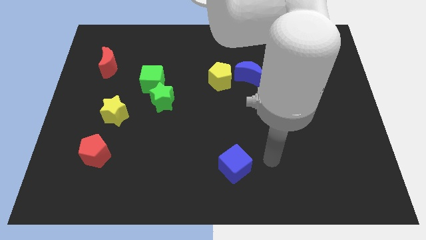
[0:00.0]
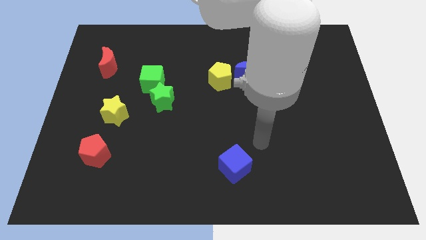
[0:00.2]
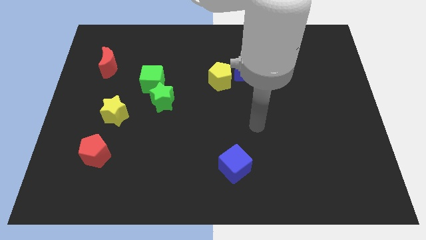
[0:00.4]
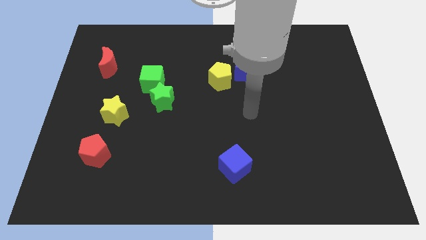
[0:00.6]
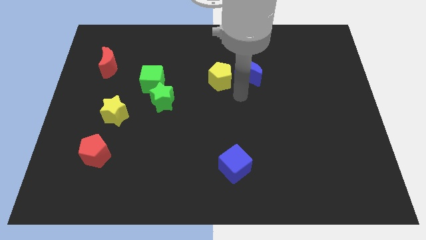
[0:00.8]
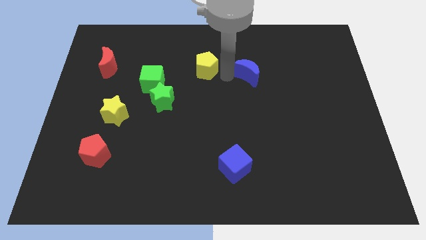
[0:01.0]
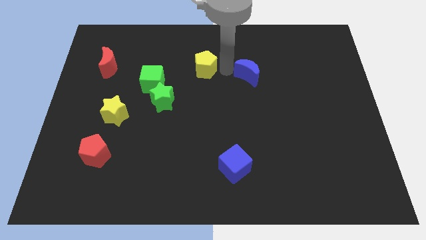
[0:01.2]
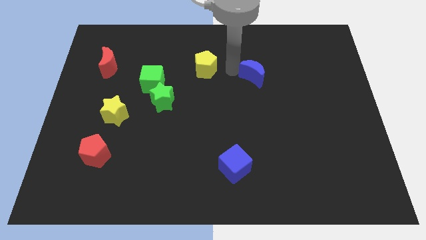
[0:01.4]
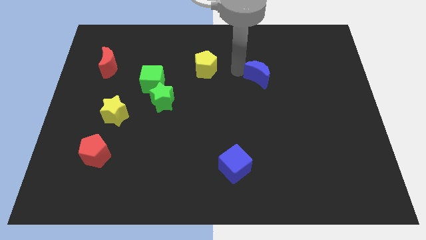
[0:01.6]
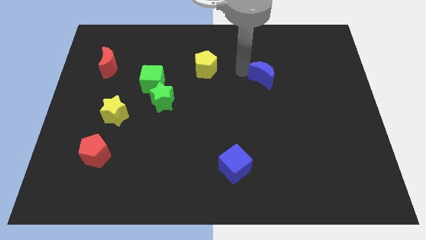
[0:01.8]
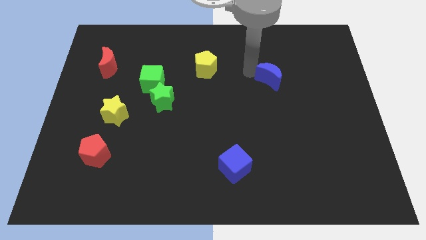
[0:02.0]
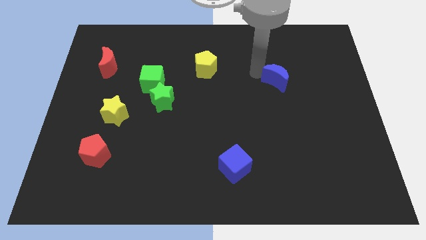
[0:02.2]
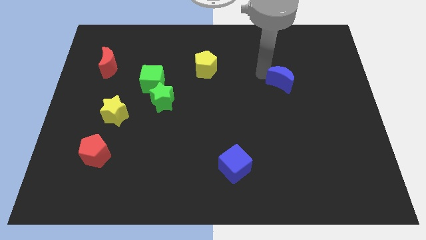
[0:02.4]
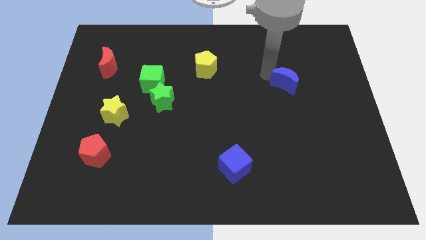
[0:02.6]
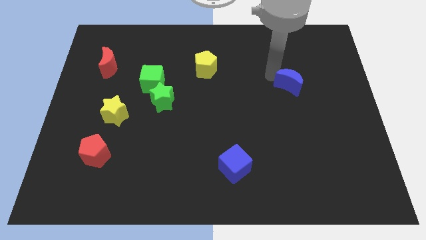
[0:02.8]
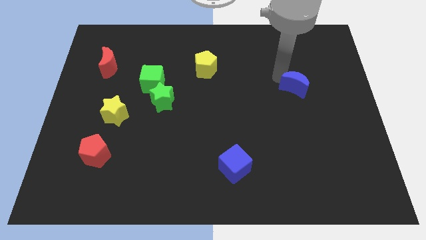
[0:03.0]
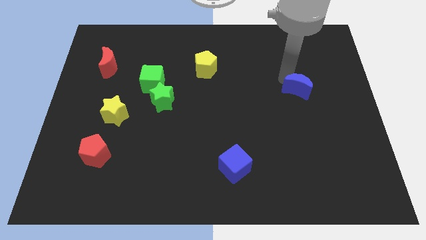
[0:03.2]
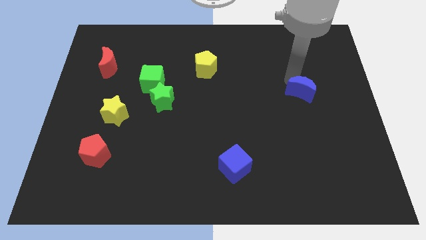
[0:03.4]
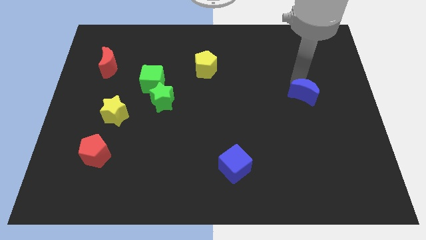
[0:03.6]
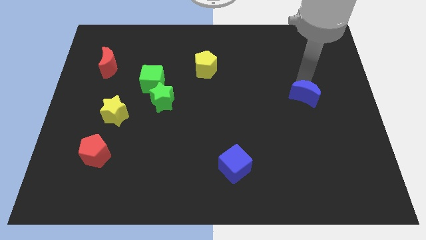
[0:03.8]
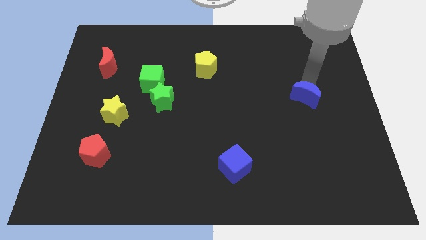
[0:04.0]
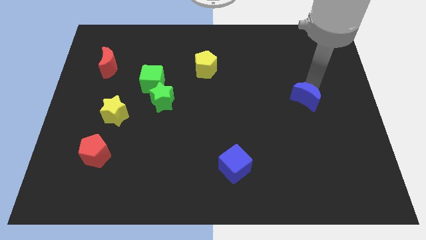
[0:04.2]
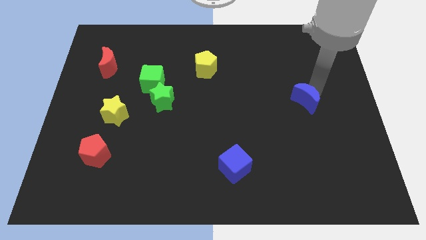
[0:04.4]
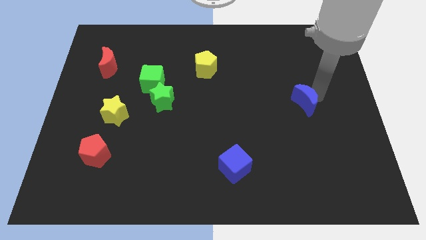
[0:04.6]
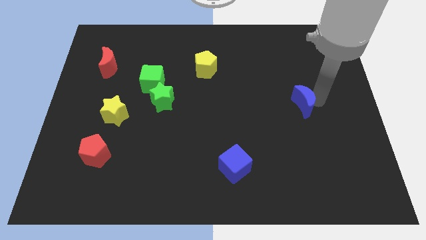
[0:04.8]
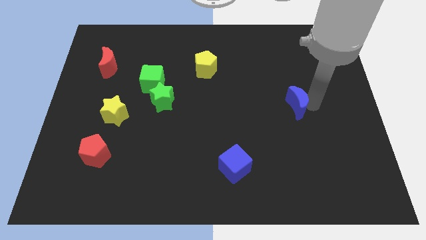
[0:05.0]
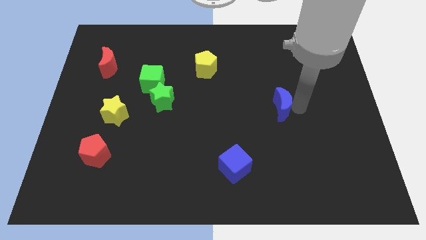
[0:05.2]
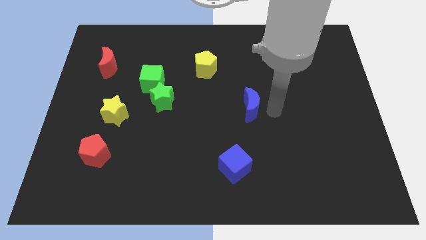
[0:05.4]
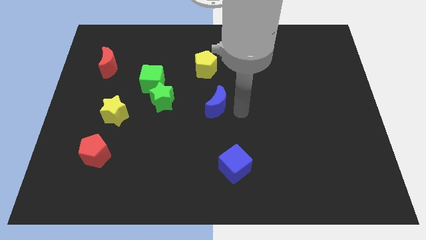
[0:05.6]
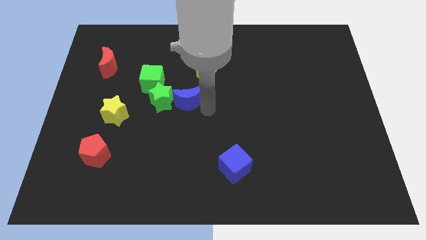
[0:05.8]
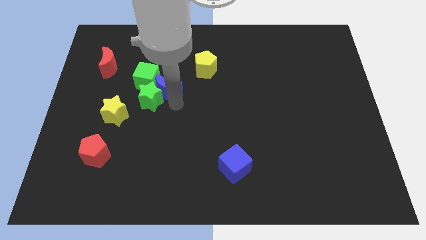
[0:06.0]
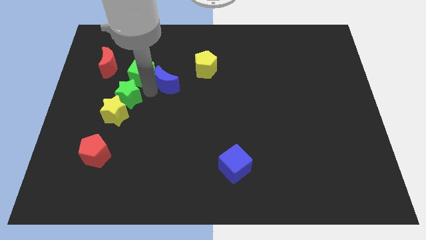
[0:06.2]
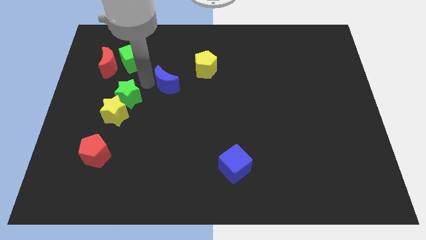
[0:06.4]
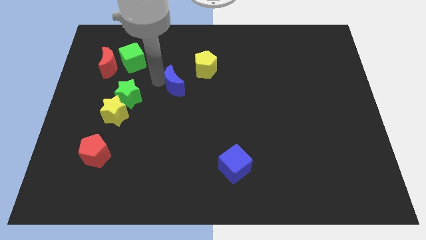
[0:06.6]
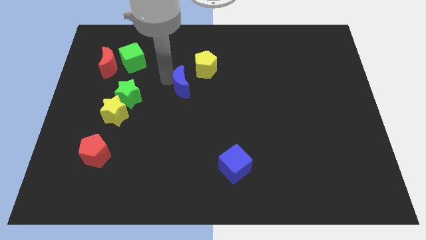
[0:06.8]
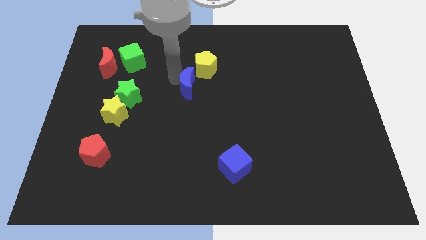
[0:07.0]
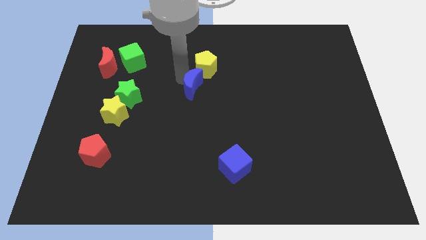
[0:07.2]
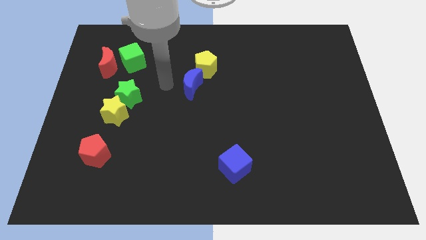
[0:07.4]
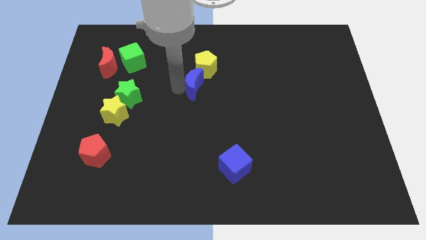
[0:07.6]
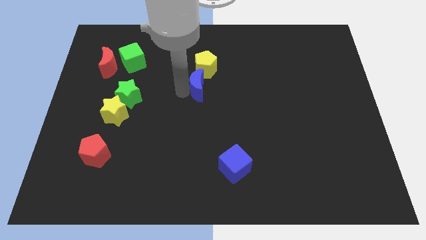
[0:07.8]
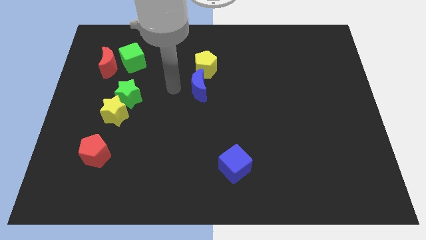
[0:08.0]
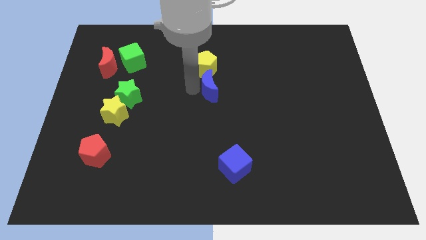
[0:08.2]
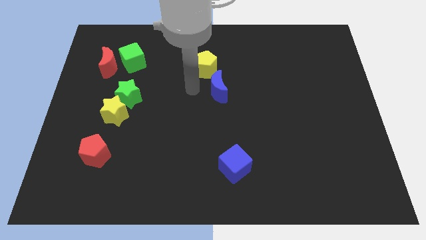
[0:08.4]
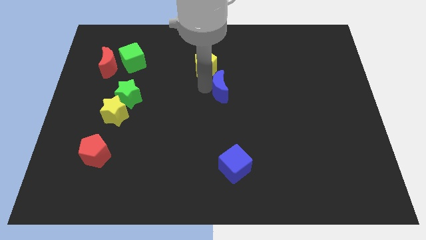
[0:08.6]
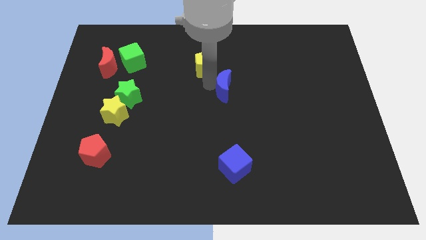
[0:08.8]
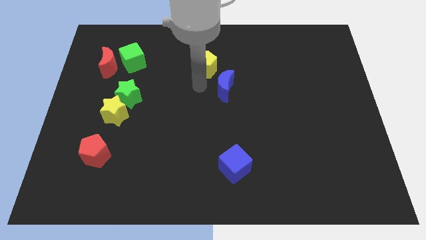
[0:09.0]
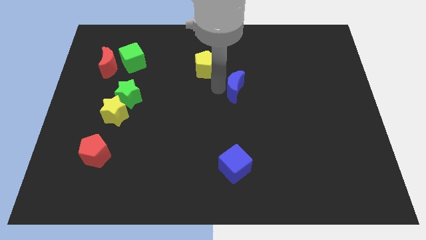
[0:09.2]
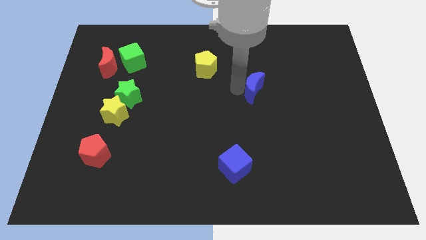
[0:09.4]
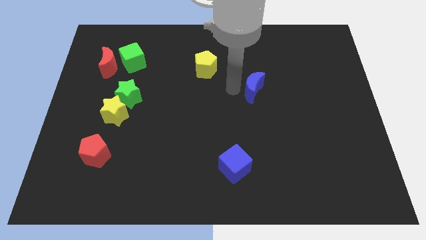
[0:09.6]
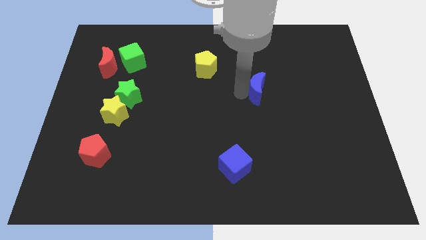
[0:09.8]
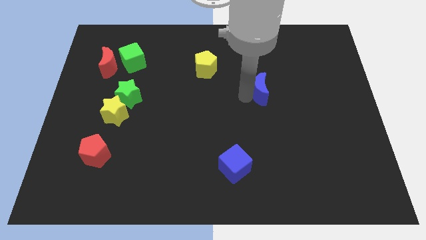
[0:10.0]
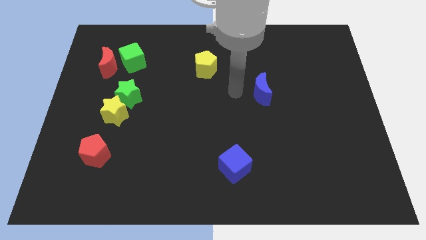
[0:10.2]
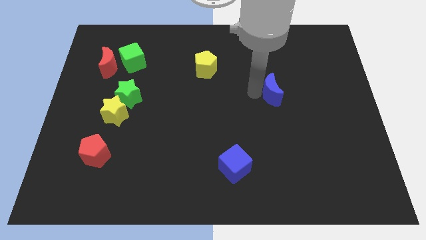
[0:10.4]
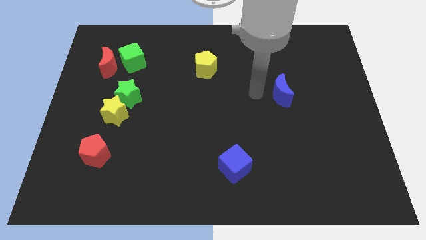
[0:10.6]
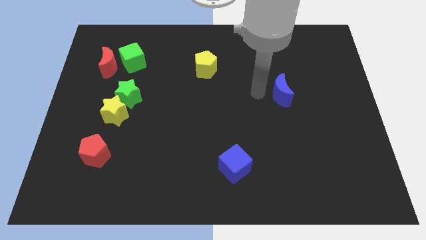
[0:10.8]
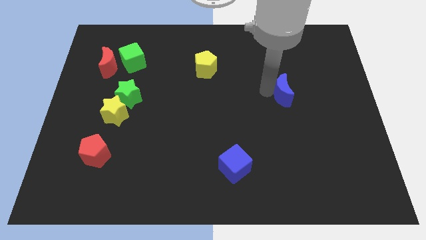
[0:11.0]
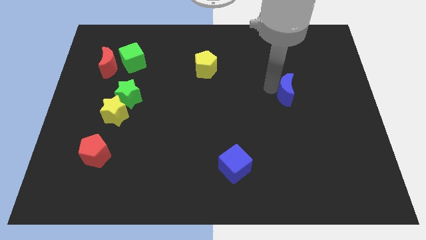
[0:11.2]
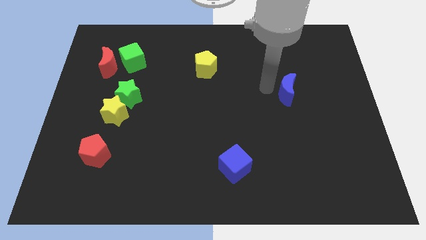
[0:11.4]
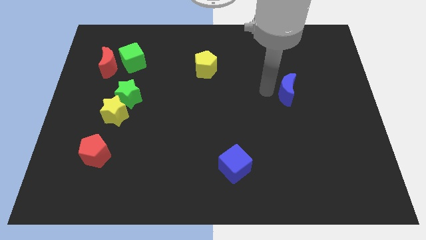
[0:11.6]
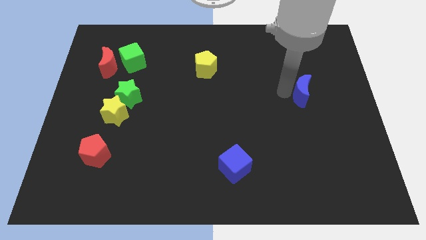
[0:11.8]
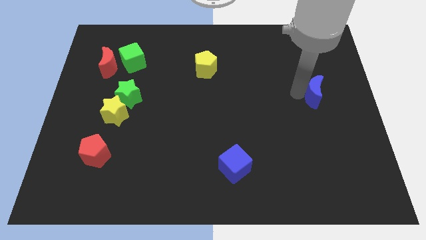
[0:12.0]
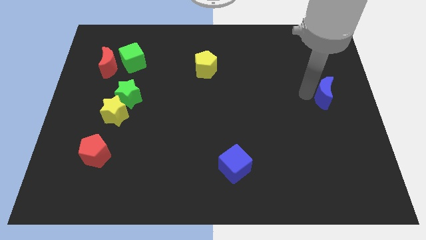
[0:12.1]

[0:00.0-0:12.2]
move the blue moon to the center right

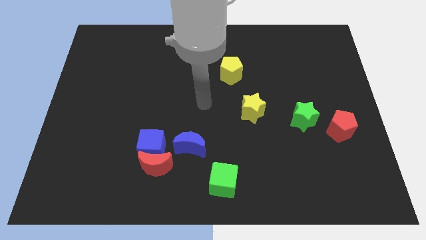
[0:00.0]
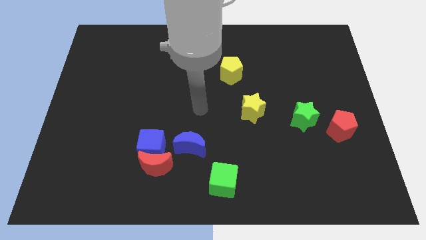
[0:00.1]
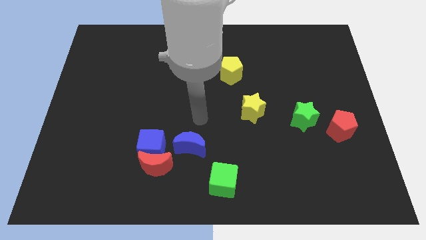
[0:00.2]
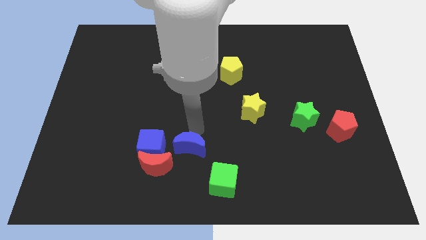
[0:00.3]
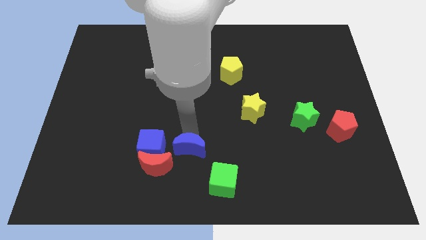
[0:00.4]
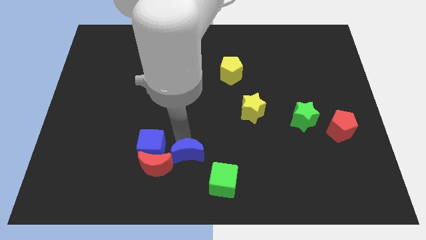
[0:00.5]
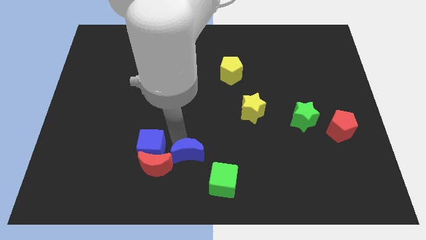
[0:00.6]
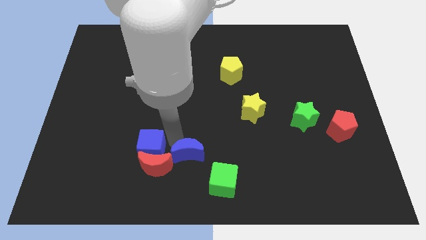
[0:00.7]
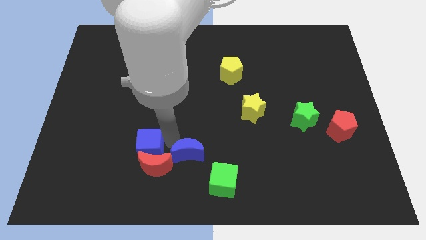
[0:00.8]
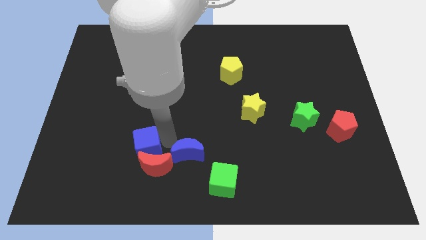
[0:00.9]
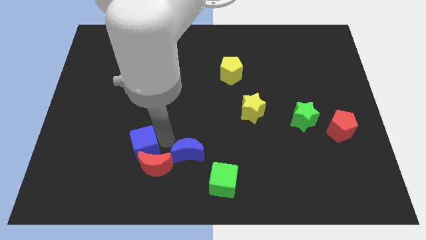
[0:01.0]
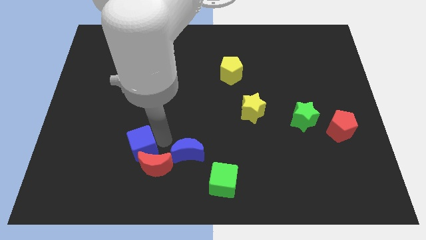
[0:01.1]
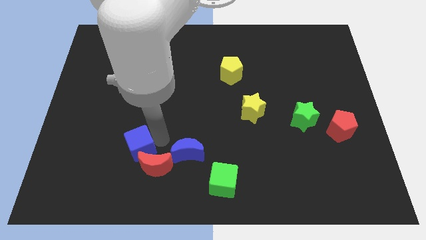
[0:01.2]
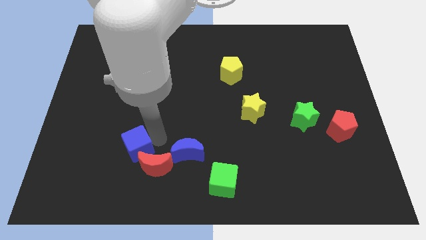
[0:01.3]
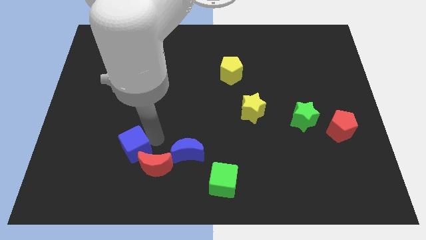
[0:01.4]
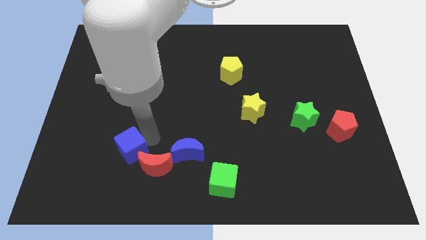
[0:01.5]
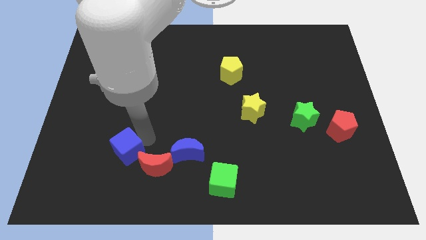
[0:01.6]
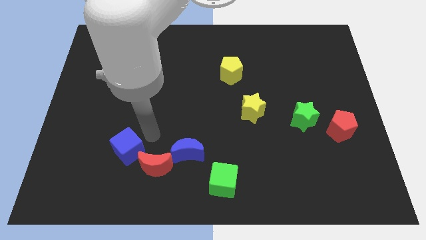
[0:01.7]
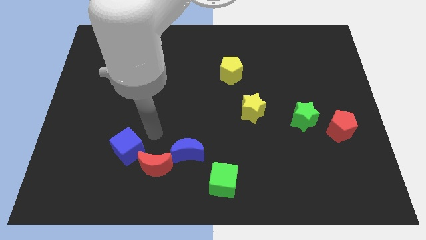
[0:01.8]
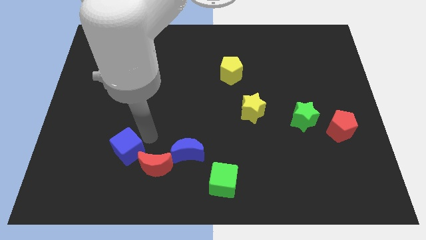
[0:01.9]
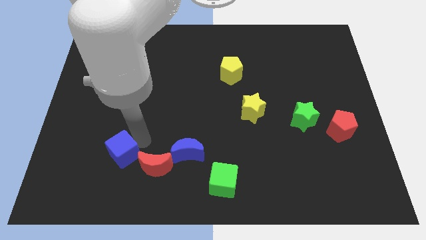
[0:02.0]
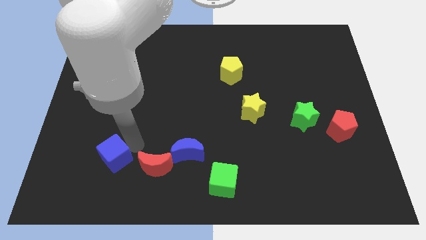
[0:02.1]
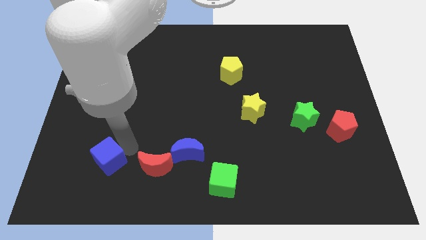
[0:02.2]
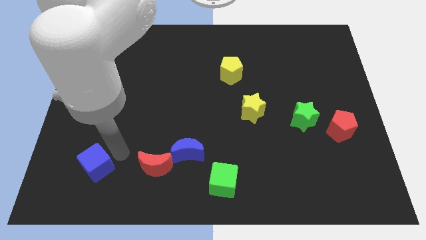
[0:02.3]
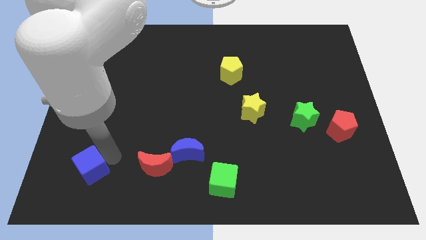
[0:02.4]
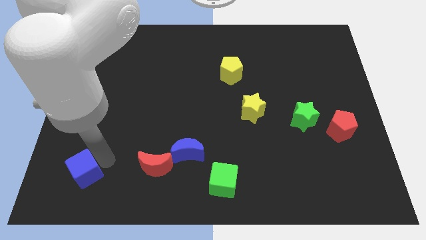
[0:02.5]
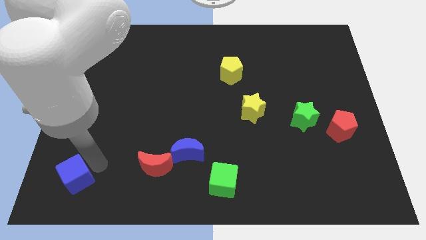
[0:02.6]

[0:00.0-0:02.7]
slide the blue cube to the lower left corner
